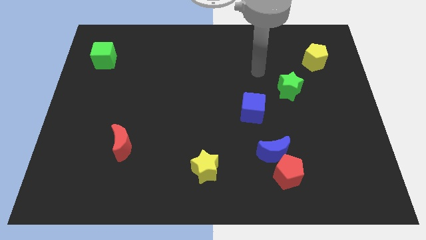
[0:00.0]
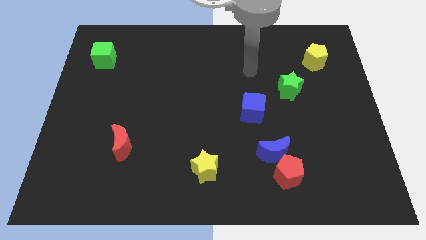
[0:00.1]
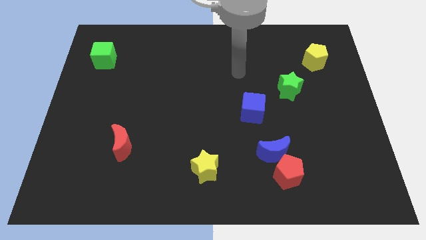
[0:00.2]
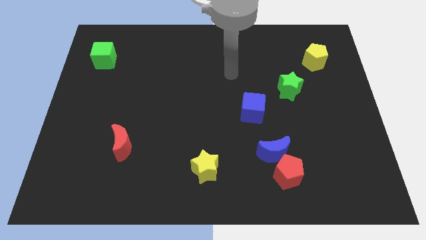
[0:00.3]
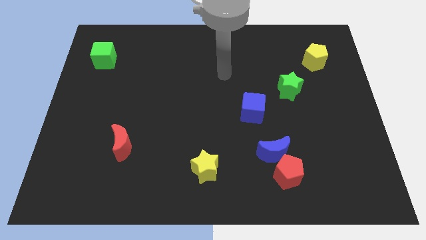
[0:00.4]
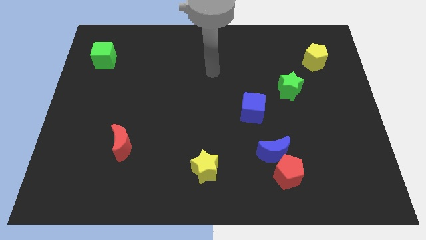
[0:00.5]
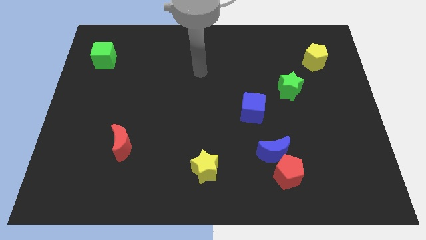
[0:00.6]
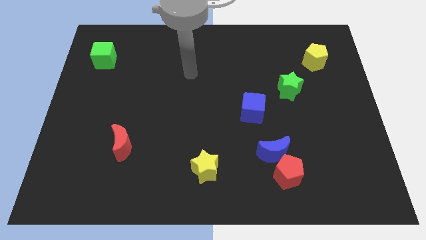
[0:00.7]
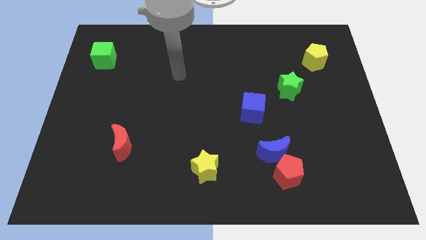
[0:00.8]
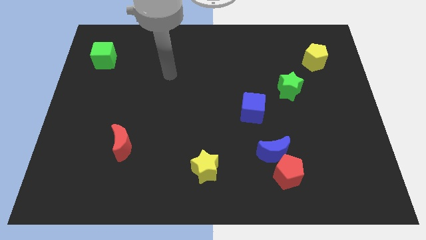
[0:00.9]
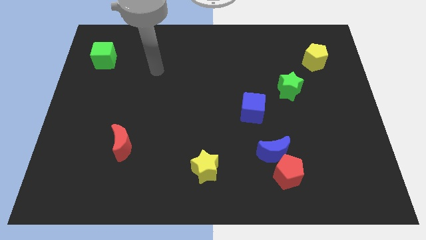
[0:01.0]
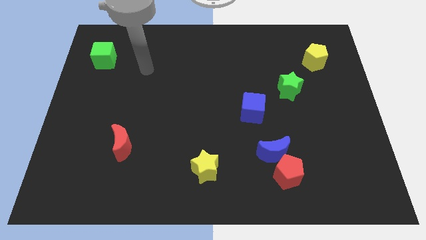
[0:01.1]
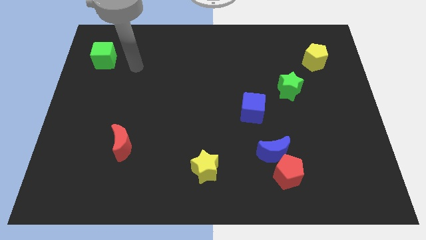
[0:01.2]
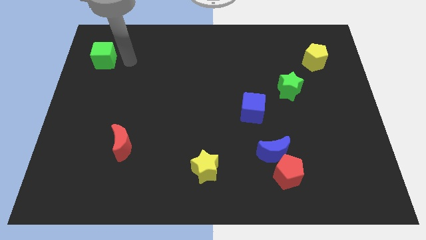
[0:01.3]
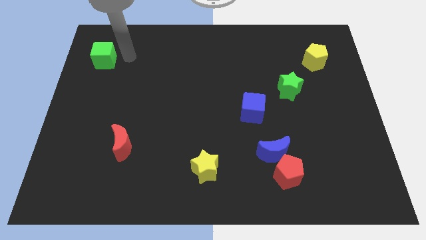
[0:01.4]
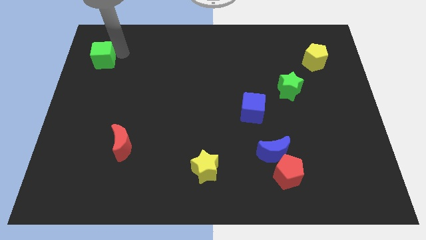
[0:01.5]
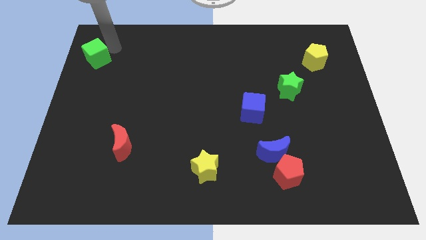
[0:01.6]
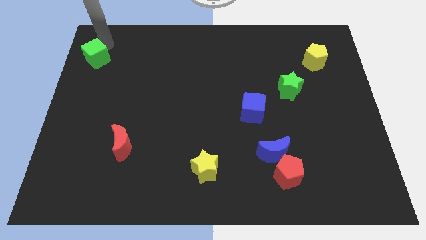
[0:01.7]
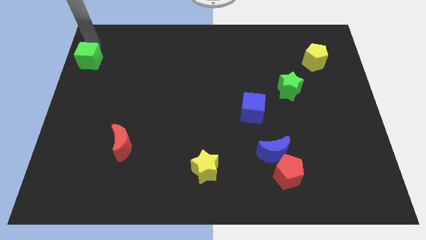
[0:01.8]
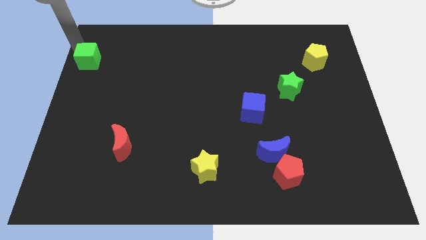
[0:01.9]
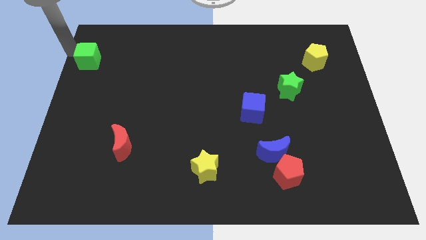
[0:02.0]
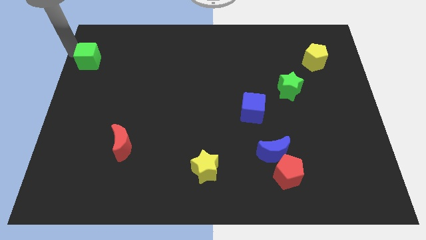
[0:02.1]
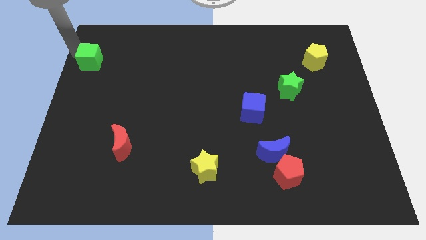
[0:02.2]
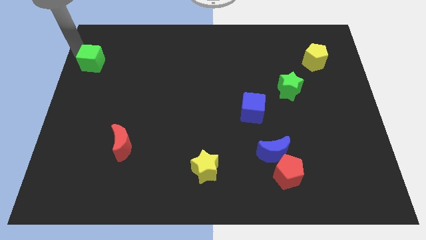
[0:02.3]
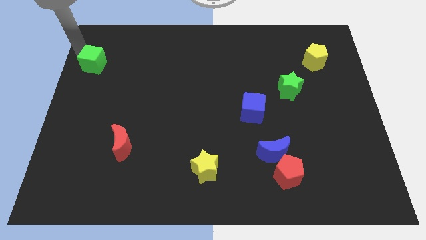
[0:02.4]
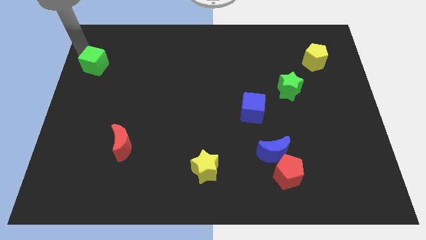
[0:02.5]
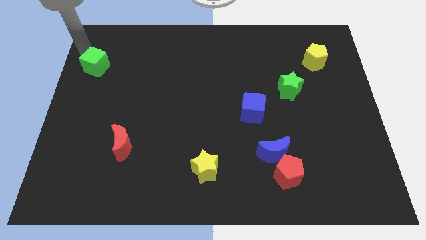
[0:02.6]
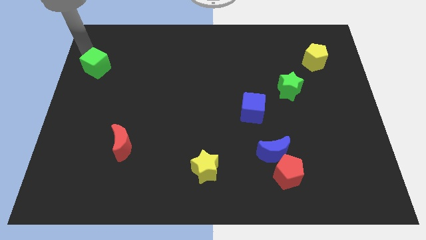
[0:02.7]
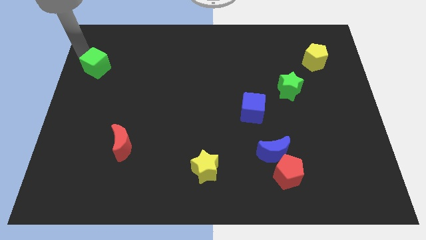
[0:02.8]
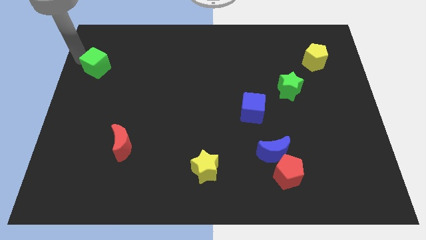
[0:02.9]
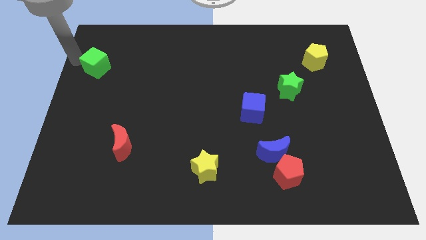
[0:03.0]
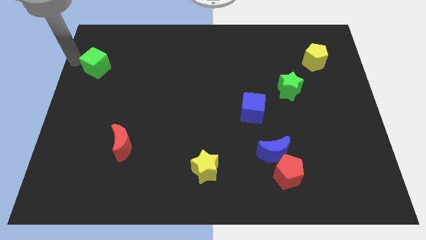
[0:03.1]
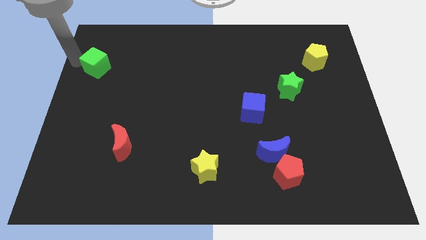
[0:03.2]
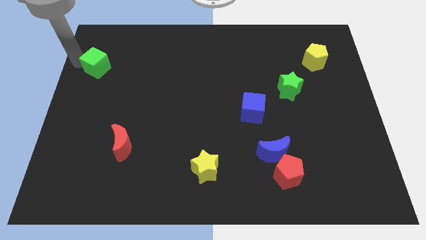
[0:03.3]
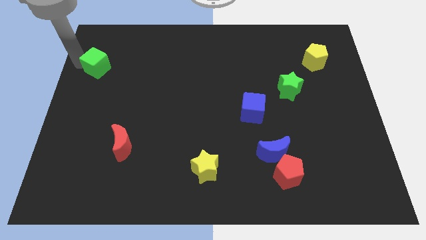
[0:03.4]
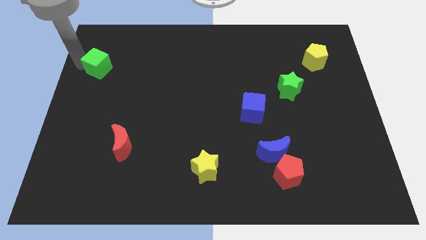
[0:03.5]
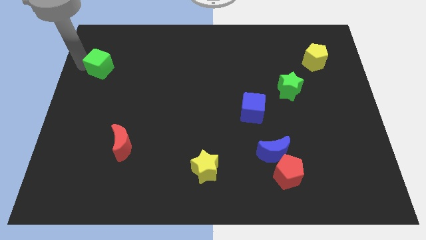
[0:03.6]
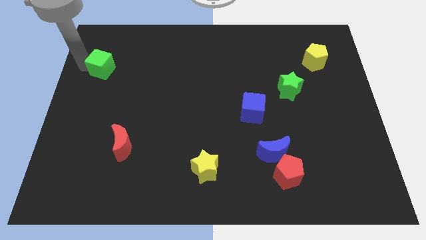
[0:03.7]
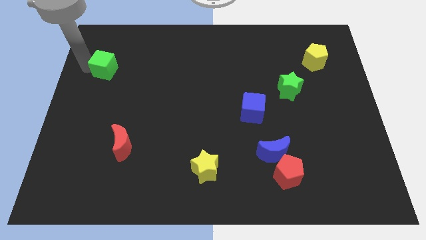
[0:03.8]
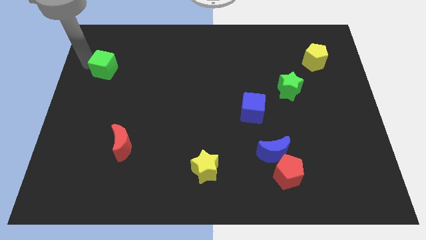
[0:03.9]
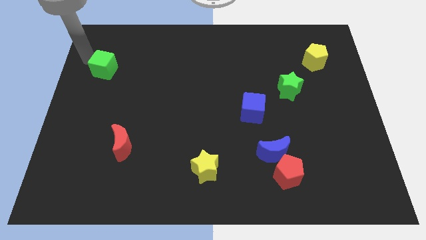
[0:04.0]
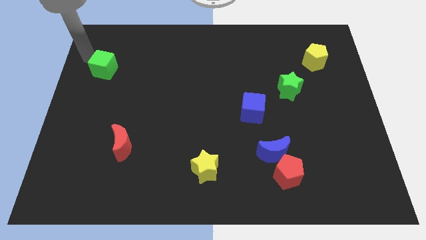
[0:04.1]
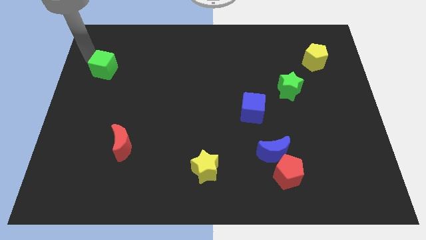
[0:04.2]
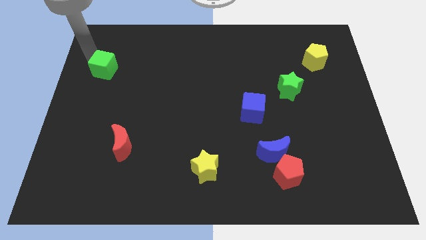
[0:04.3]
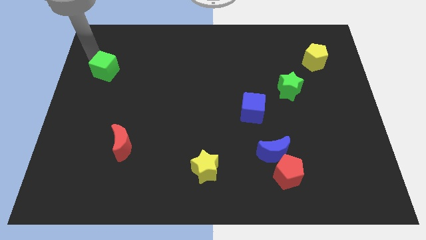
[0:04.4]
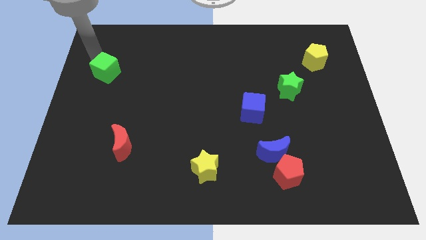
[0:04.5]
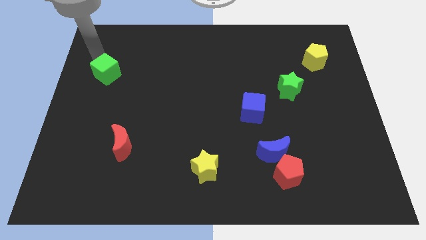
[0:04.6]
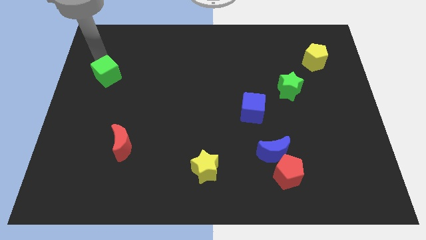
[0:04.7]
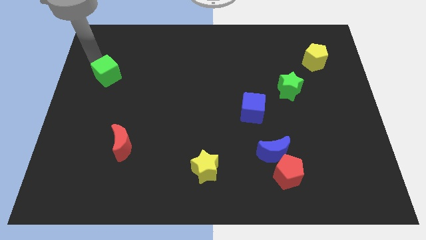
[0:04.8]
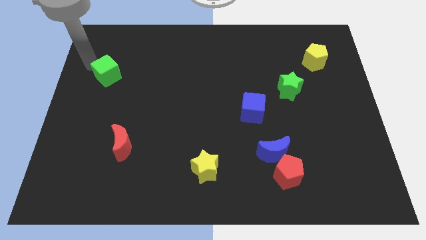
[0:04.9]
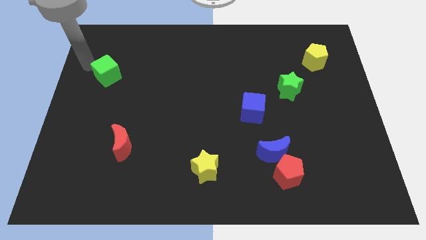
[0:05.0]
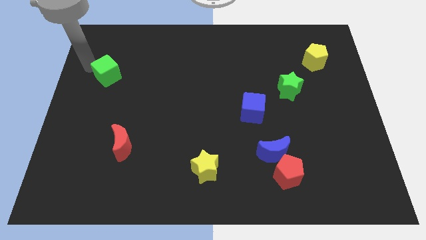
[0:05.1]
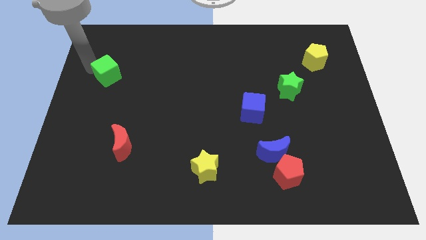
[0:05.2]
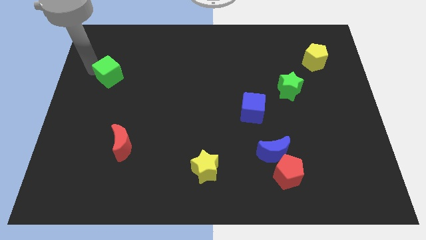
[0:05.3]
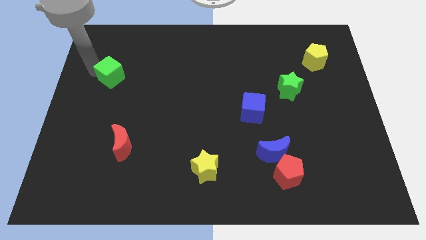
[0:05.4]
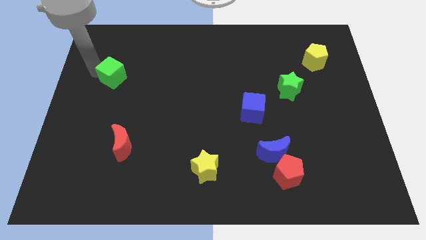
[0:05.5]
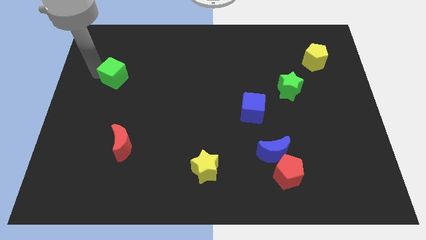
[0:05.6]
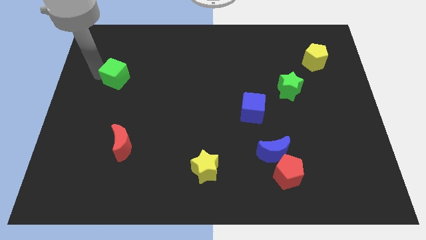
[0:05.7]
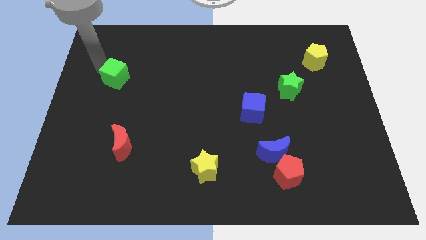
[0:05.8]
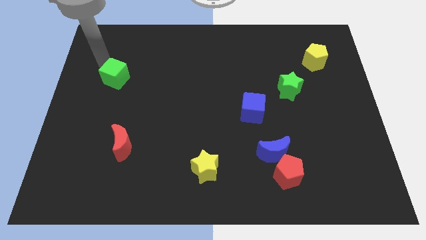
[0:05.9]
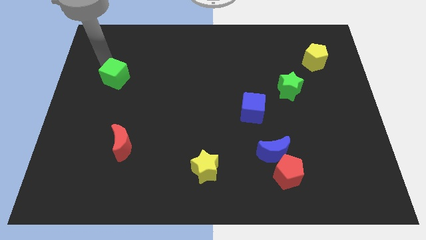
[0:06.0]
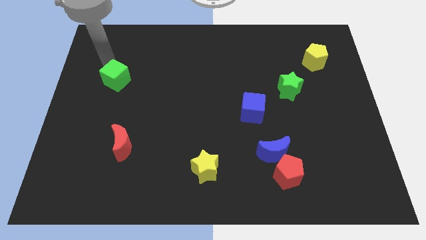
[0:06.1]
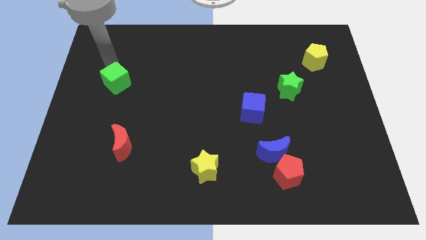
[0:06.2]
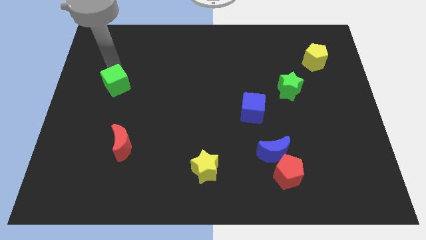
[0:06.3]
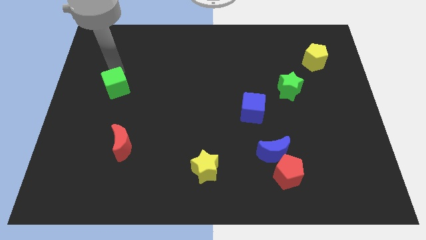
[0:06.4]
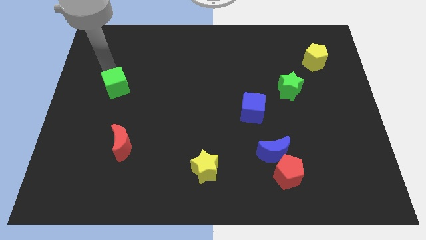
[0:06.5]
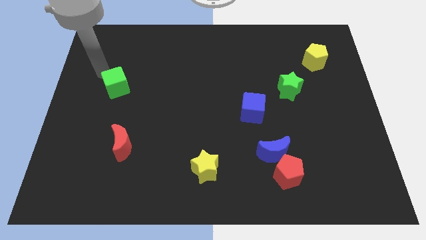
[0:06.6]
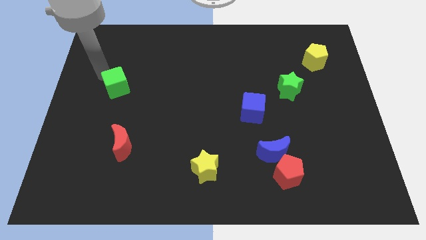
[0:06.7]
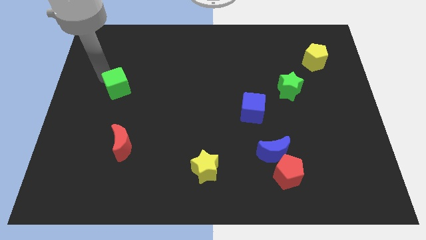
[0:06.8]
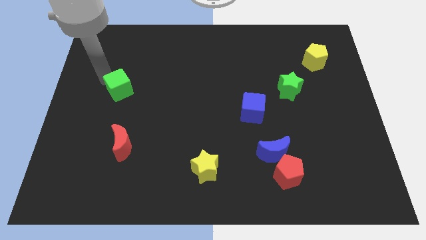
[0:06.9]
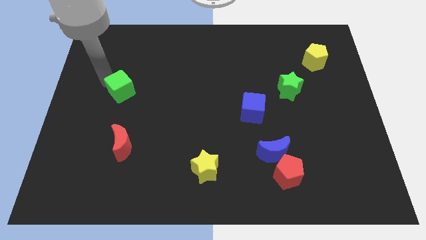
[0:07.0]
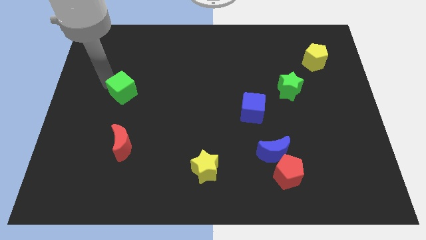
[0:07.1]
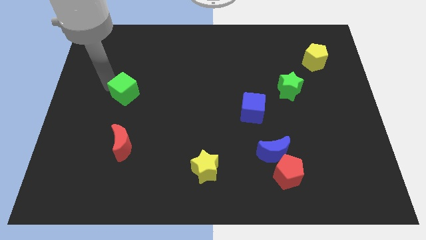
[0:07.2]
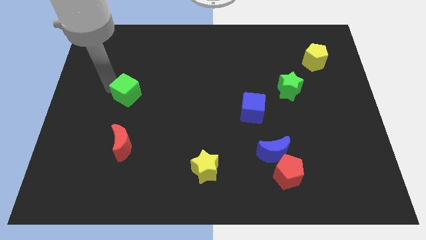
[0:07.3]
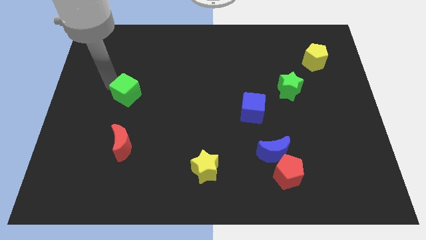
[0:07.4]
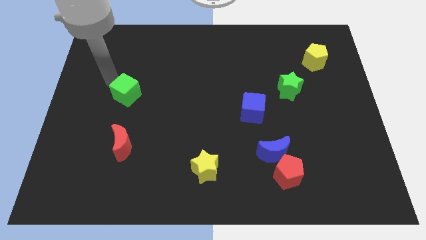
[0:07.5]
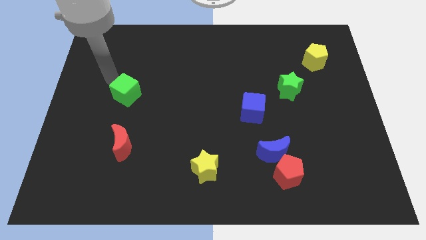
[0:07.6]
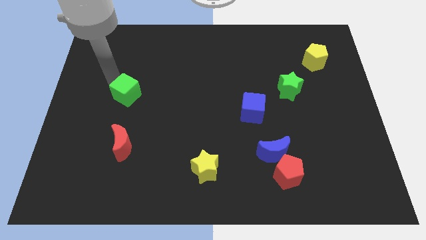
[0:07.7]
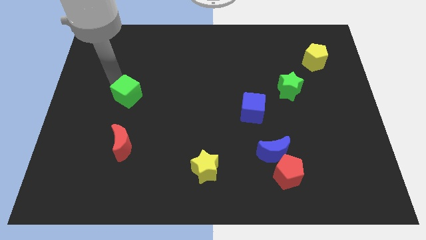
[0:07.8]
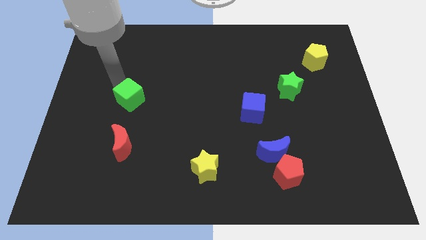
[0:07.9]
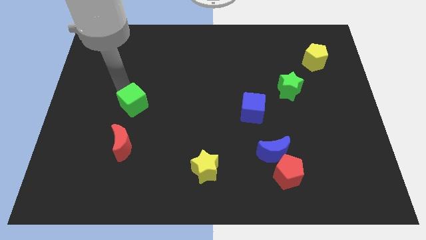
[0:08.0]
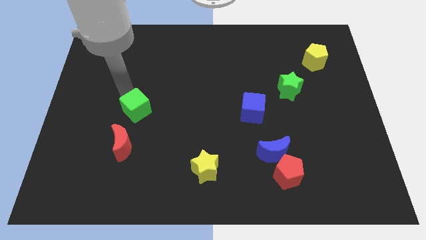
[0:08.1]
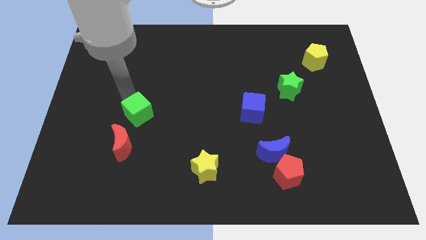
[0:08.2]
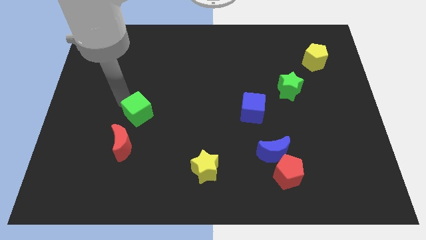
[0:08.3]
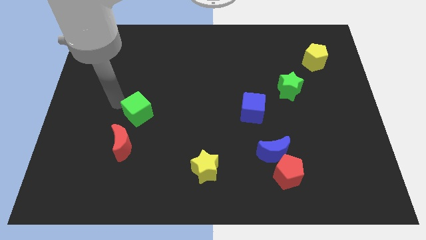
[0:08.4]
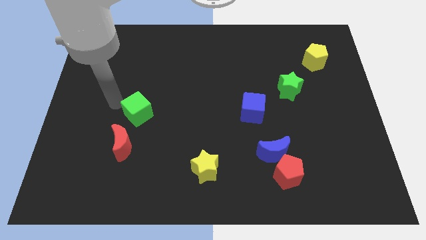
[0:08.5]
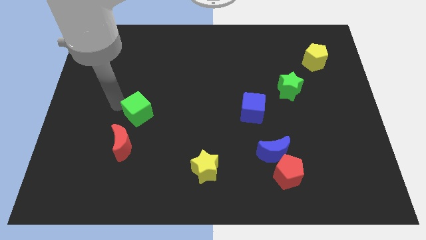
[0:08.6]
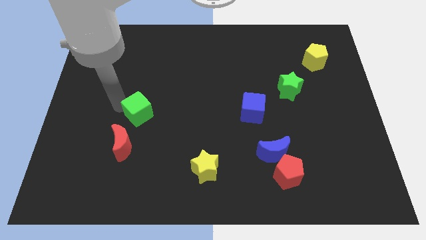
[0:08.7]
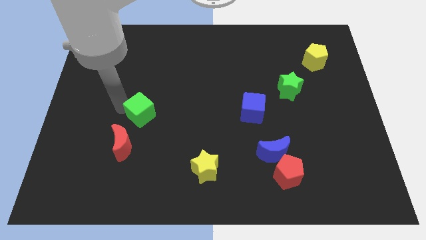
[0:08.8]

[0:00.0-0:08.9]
slide the green cube downwards and then to the right
